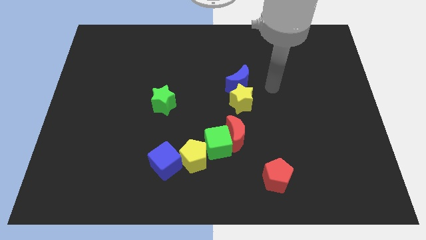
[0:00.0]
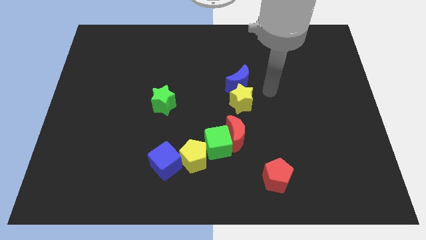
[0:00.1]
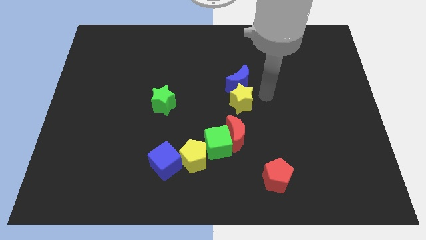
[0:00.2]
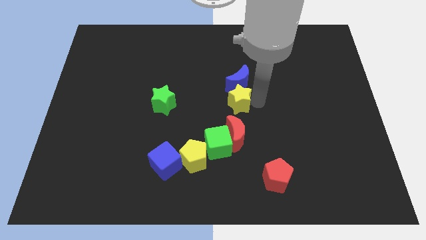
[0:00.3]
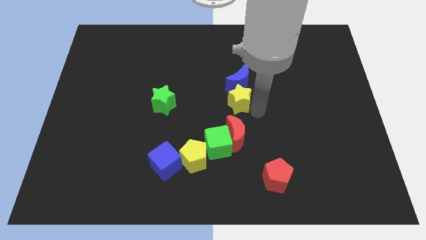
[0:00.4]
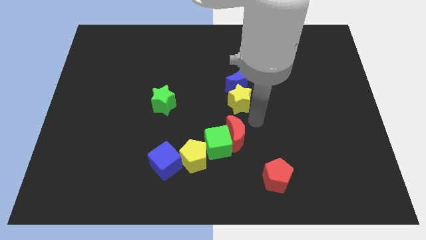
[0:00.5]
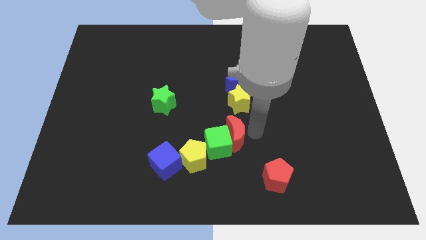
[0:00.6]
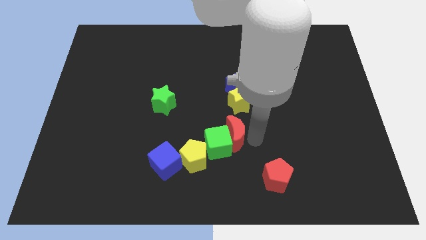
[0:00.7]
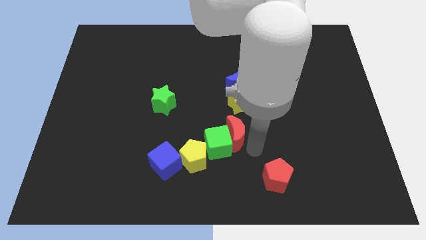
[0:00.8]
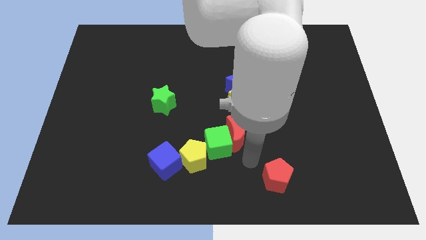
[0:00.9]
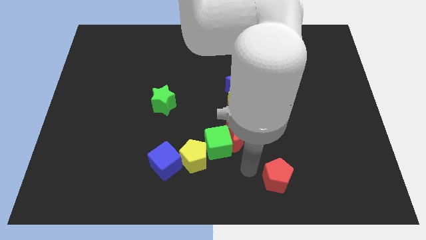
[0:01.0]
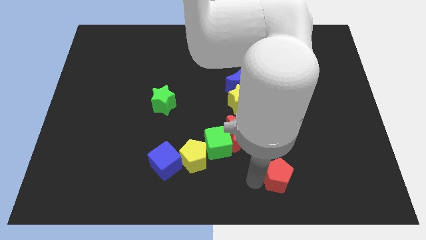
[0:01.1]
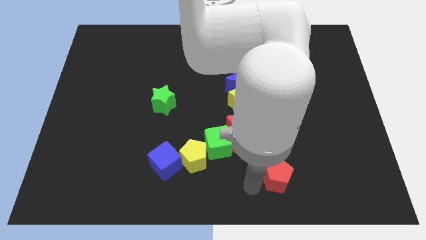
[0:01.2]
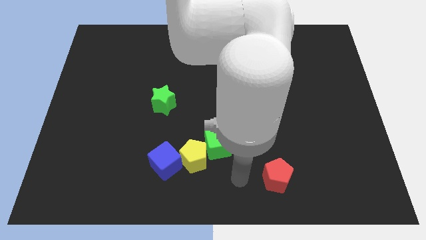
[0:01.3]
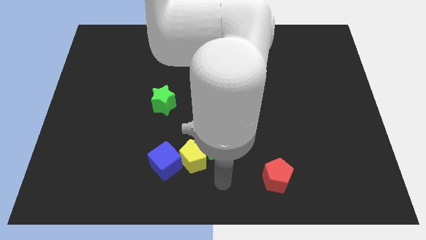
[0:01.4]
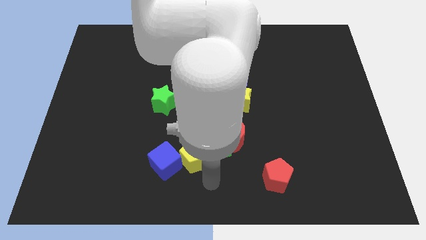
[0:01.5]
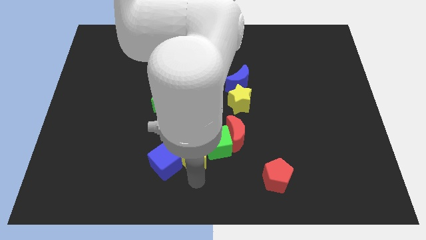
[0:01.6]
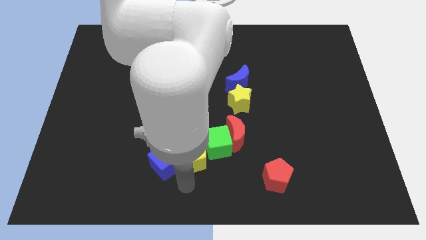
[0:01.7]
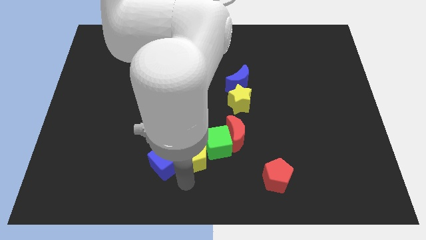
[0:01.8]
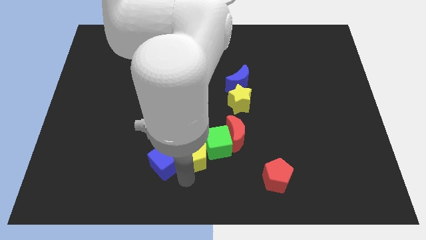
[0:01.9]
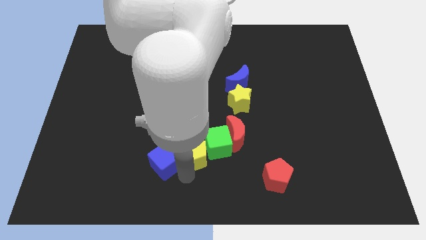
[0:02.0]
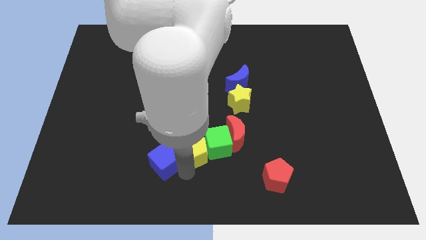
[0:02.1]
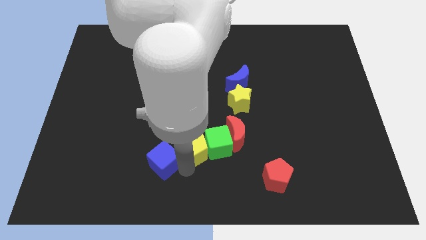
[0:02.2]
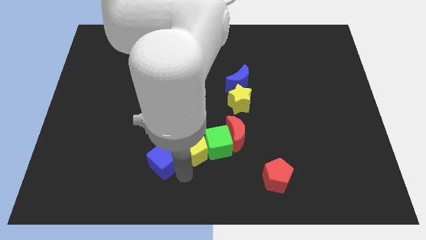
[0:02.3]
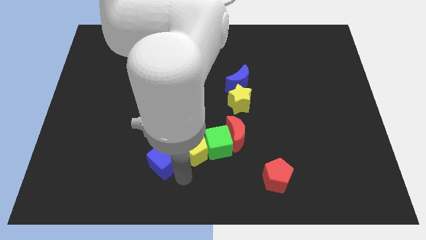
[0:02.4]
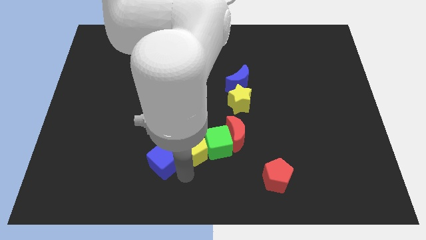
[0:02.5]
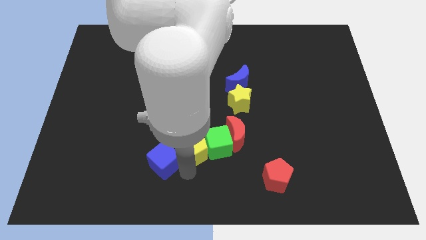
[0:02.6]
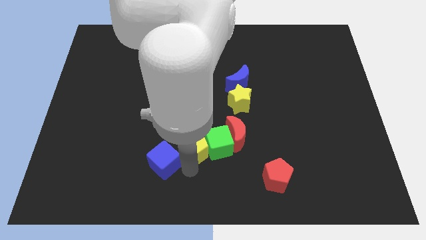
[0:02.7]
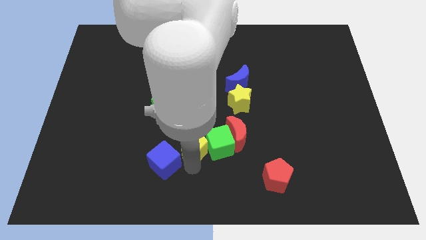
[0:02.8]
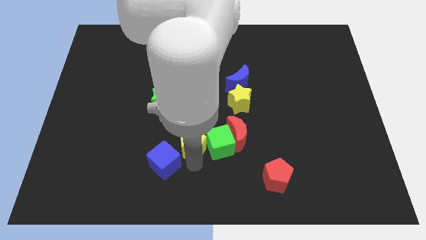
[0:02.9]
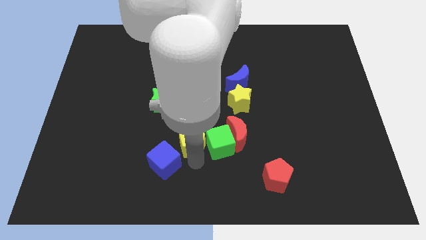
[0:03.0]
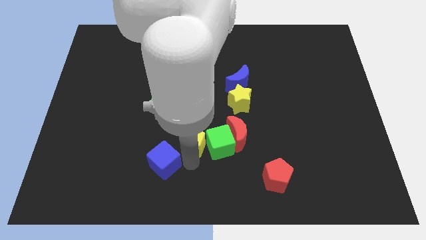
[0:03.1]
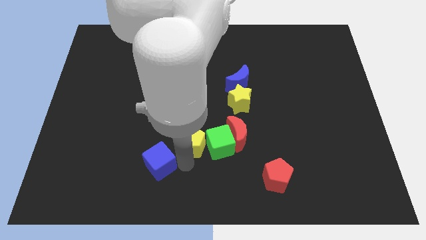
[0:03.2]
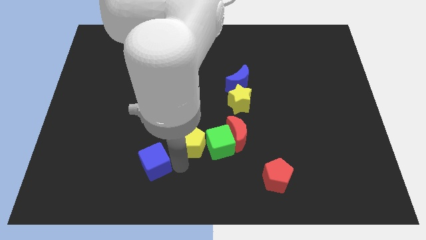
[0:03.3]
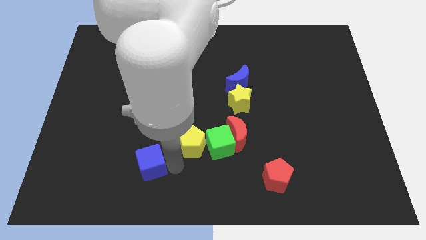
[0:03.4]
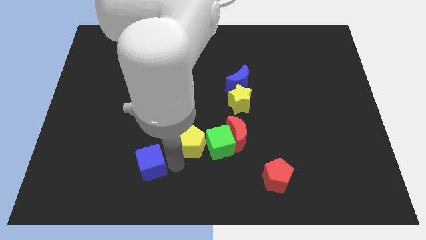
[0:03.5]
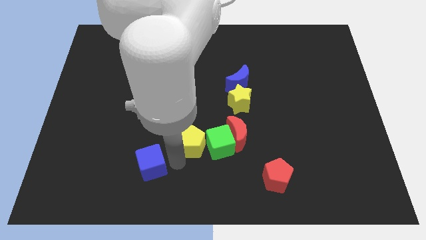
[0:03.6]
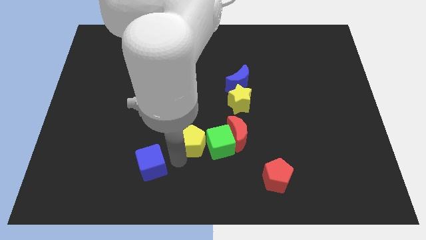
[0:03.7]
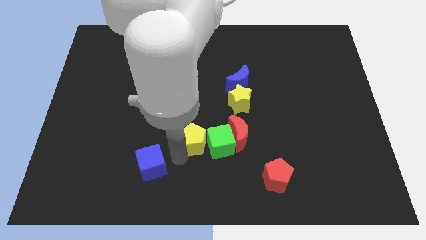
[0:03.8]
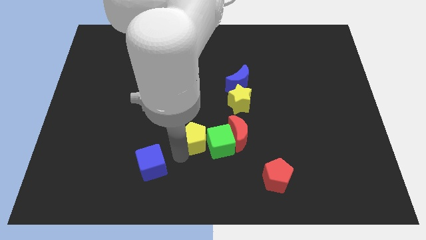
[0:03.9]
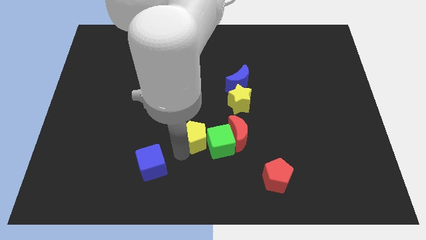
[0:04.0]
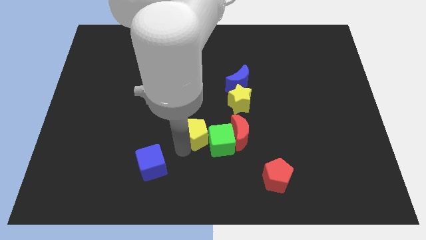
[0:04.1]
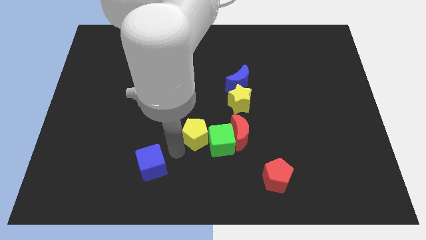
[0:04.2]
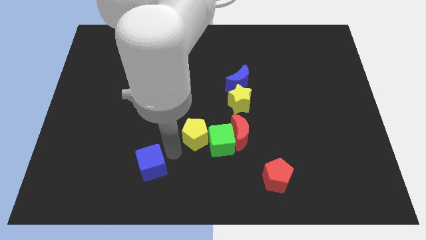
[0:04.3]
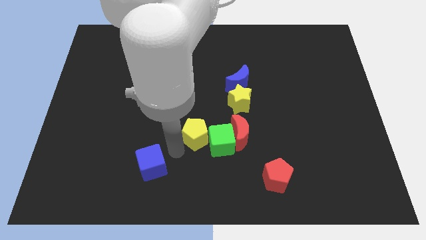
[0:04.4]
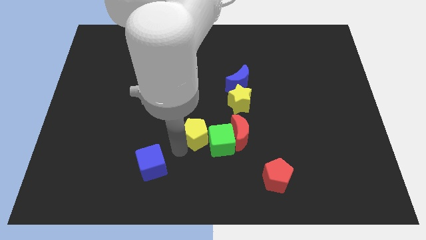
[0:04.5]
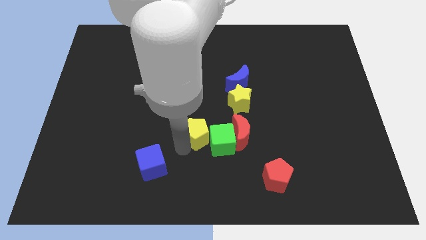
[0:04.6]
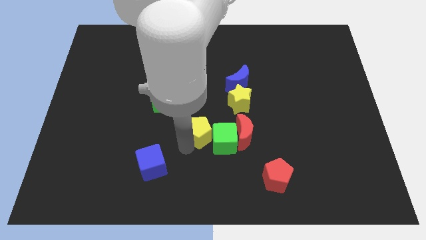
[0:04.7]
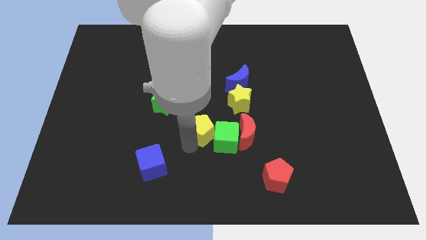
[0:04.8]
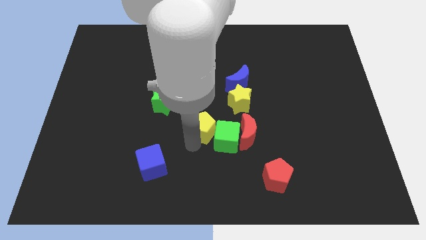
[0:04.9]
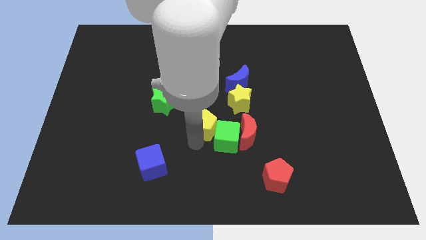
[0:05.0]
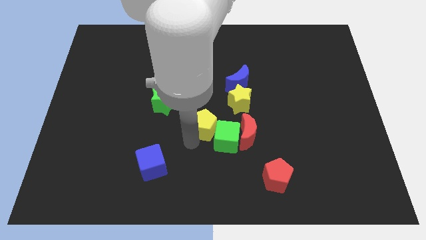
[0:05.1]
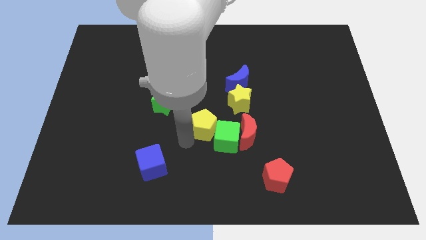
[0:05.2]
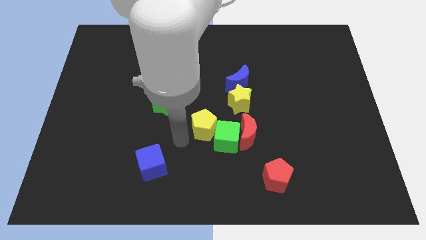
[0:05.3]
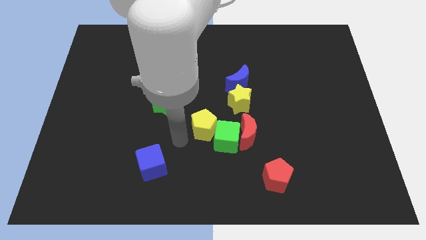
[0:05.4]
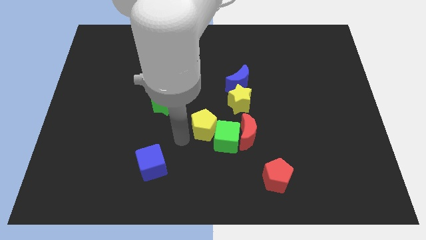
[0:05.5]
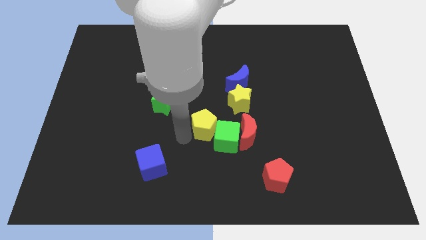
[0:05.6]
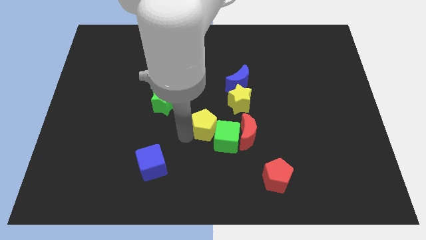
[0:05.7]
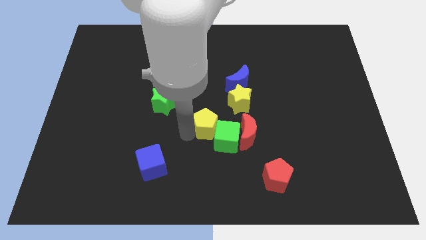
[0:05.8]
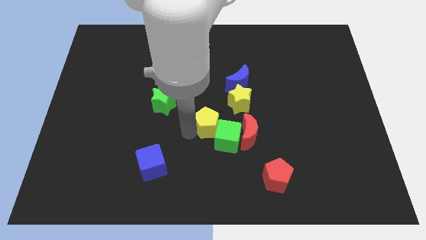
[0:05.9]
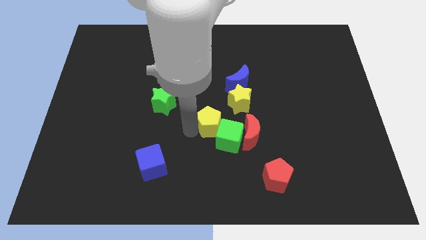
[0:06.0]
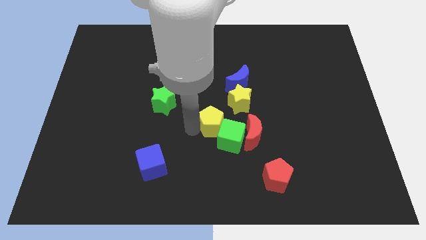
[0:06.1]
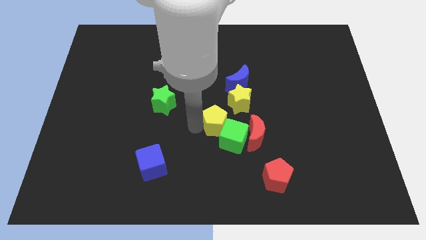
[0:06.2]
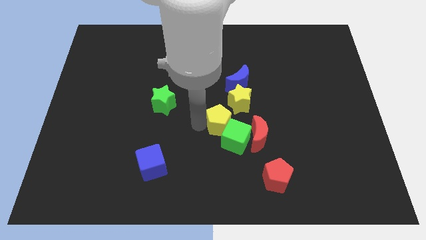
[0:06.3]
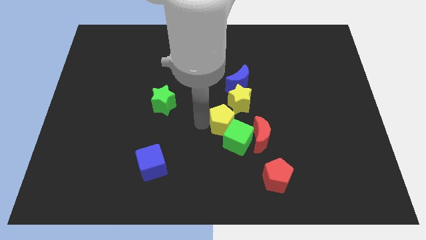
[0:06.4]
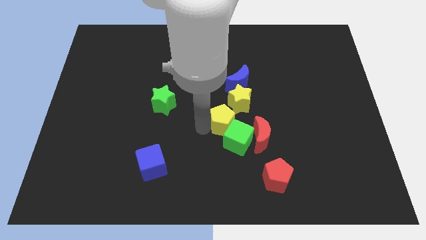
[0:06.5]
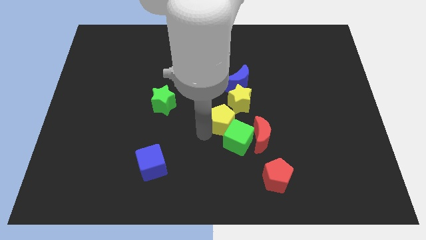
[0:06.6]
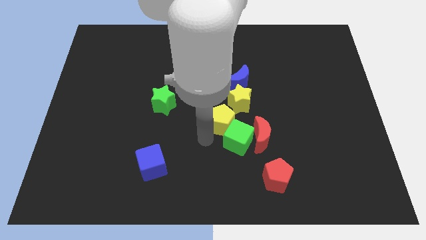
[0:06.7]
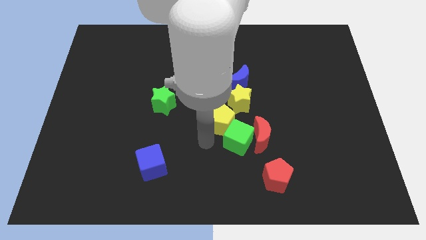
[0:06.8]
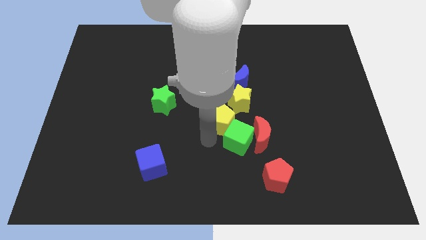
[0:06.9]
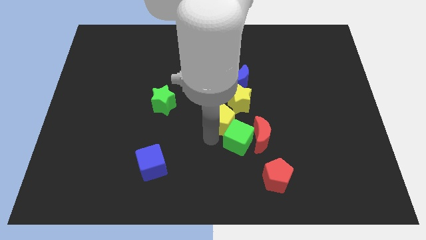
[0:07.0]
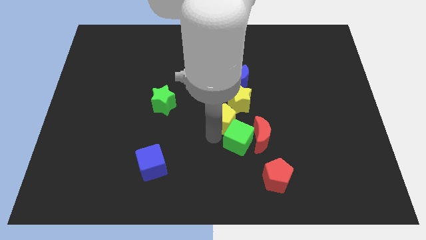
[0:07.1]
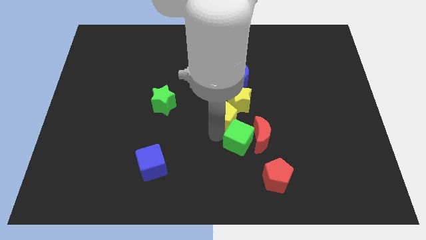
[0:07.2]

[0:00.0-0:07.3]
slide the yellow pentagon close to the yellow star

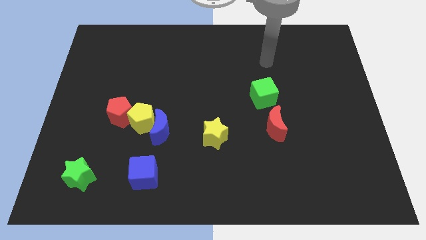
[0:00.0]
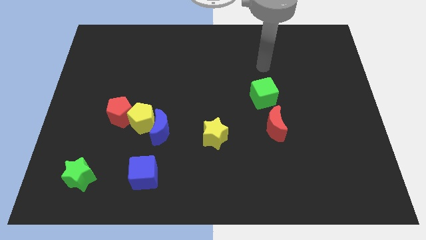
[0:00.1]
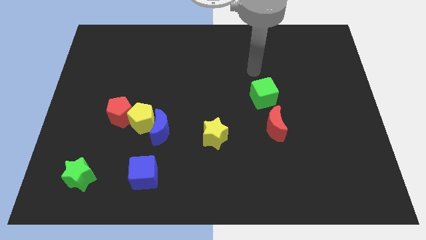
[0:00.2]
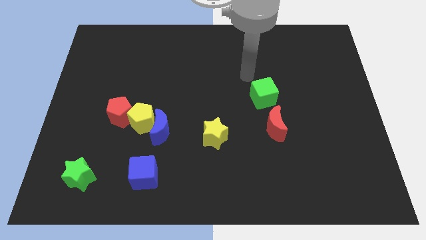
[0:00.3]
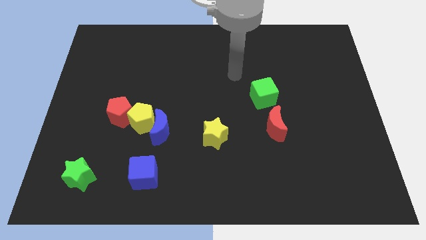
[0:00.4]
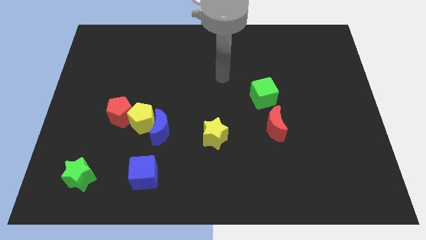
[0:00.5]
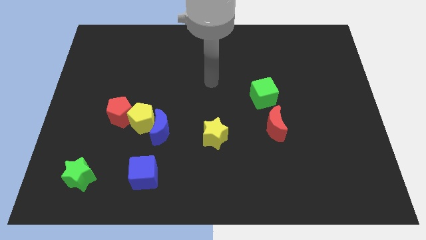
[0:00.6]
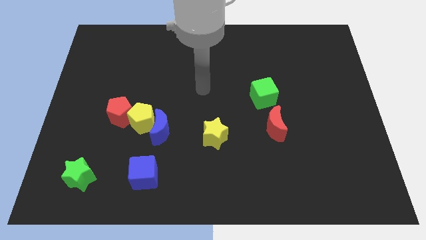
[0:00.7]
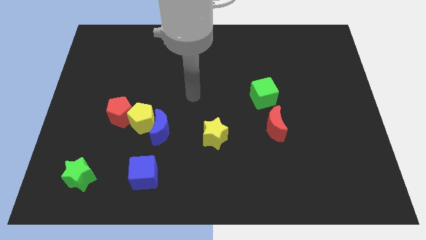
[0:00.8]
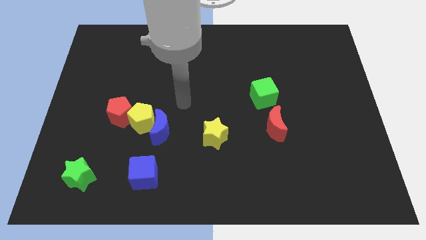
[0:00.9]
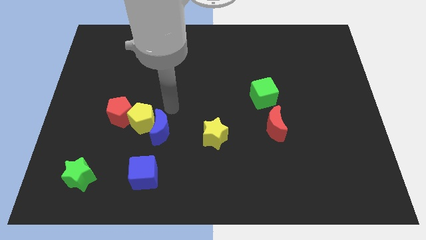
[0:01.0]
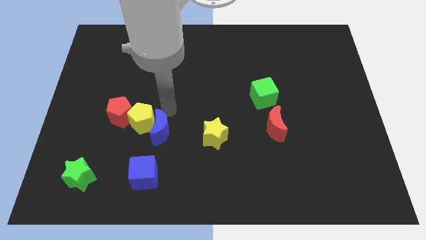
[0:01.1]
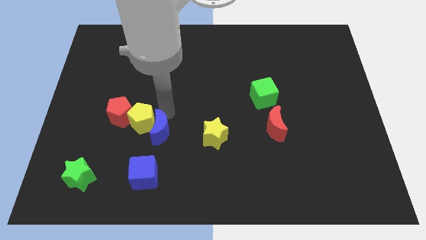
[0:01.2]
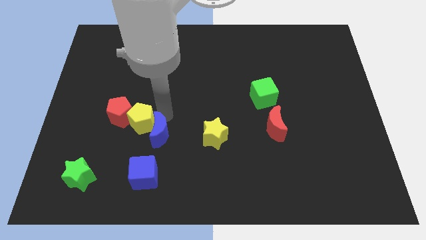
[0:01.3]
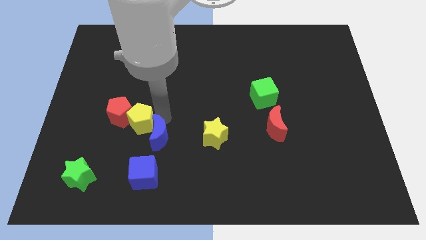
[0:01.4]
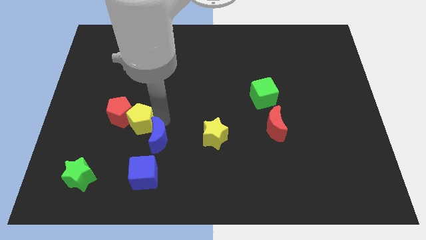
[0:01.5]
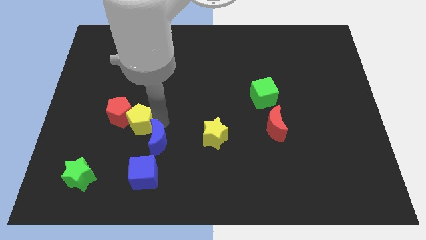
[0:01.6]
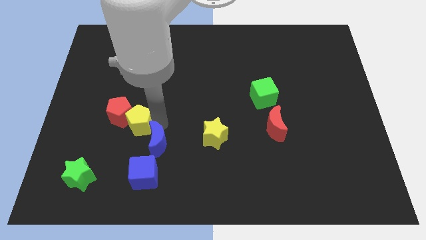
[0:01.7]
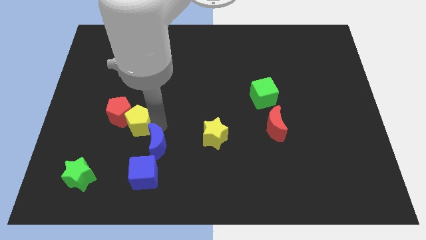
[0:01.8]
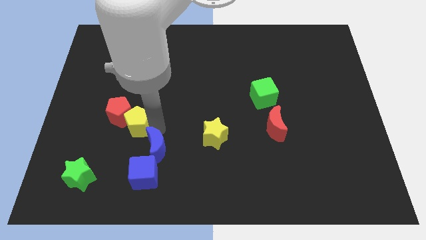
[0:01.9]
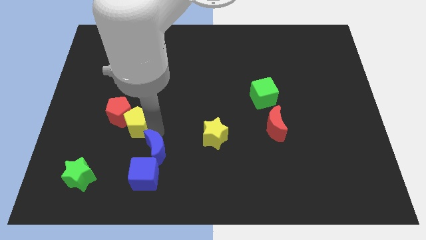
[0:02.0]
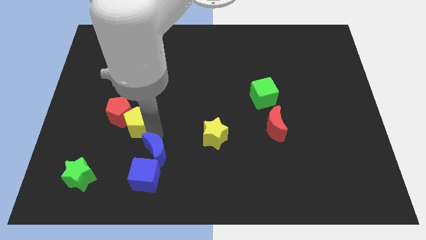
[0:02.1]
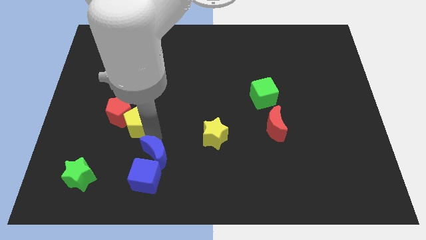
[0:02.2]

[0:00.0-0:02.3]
put the blue moon towards the blue cube
